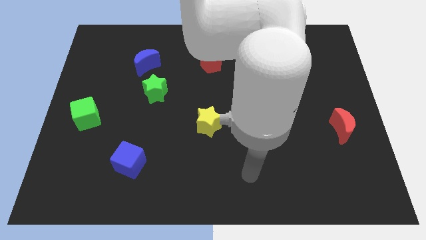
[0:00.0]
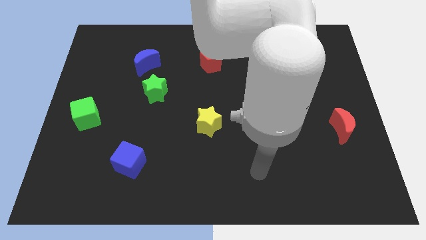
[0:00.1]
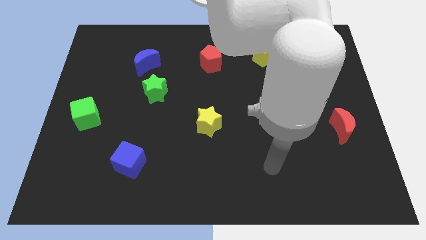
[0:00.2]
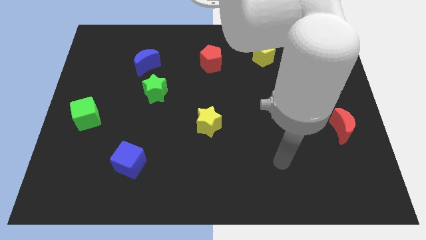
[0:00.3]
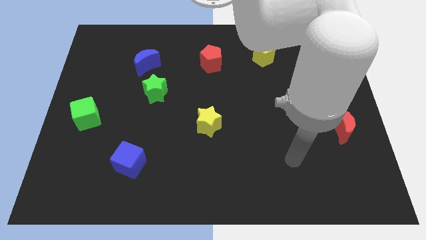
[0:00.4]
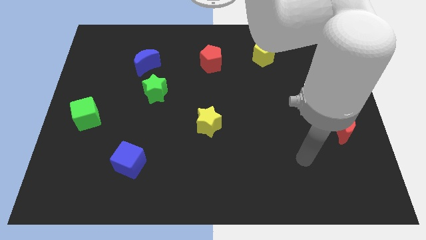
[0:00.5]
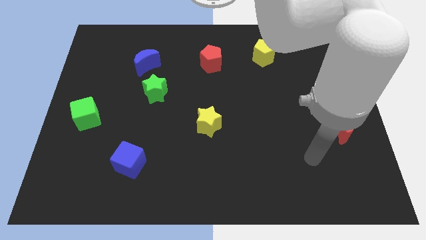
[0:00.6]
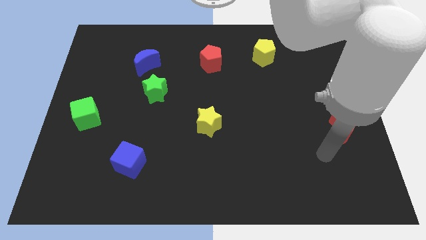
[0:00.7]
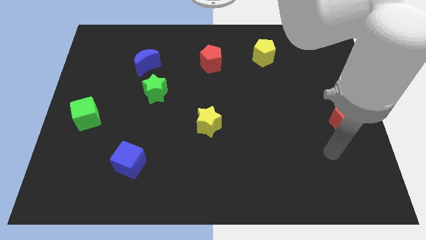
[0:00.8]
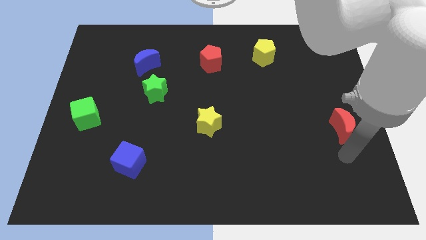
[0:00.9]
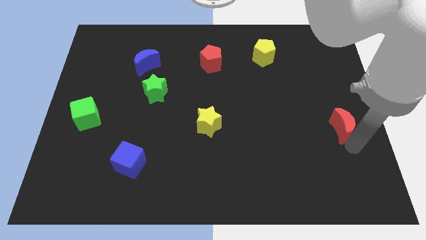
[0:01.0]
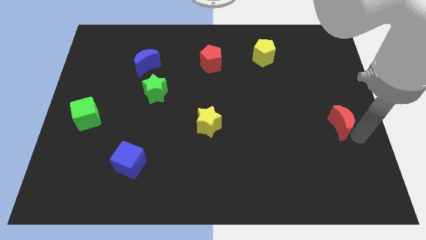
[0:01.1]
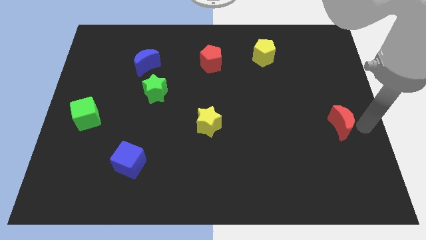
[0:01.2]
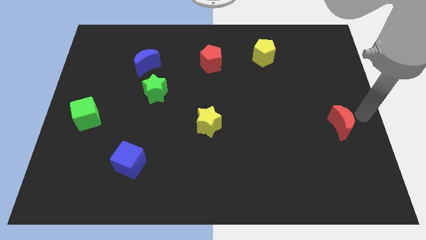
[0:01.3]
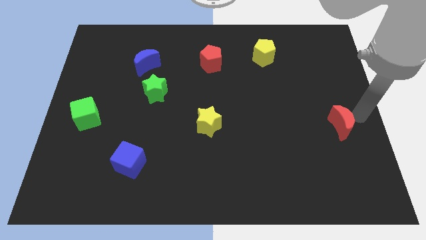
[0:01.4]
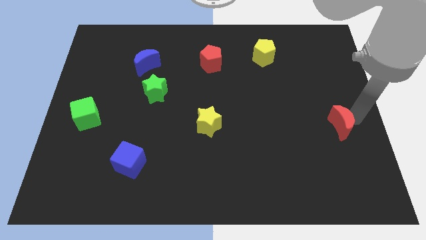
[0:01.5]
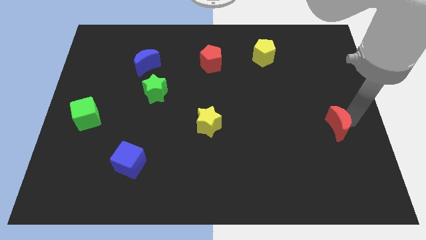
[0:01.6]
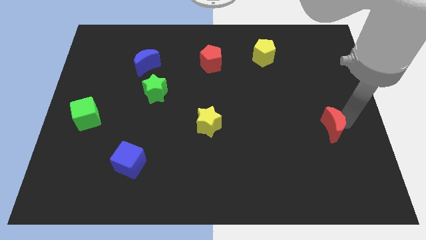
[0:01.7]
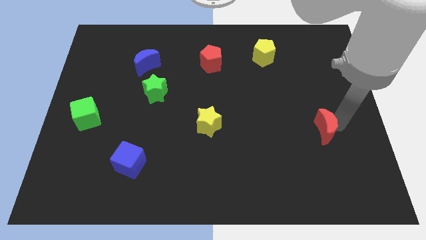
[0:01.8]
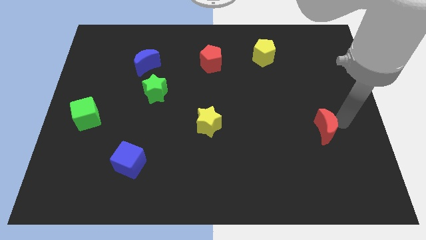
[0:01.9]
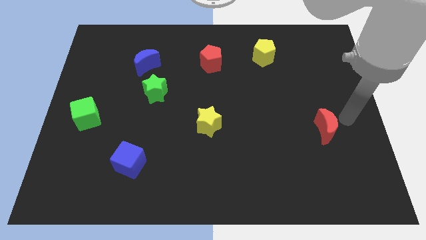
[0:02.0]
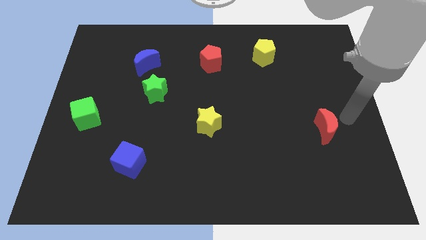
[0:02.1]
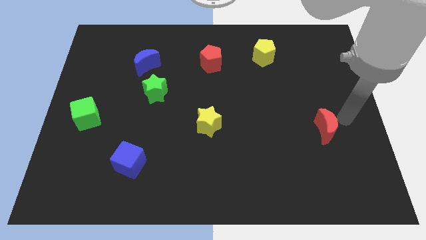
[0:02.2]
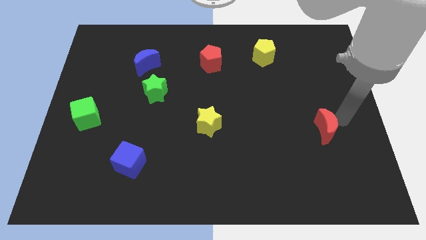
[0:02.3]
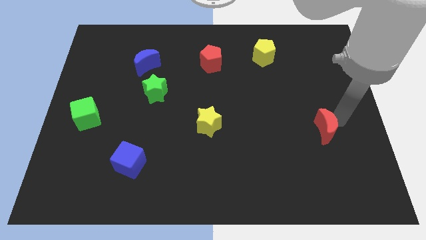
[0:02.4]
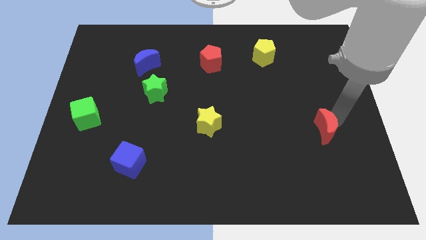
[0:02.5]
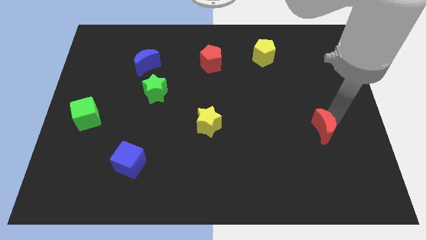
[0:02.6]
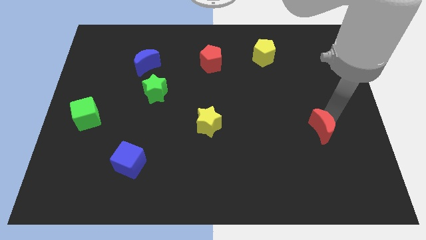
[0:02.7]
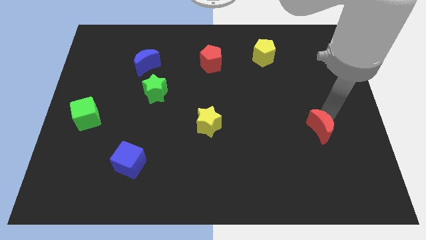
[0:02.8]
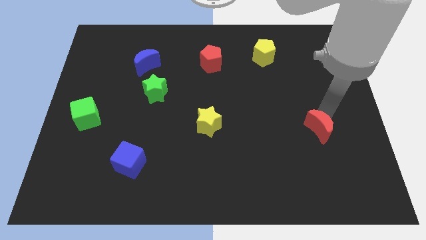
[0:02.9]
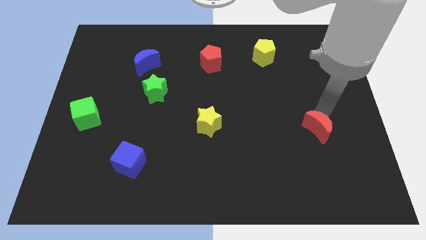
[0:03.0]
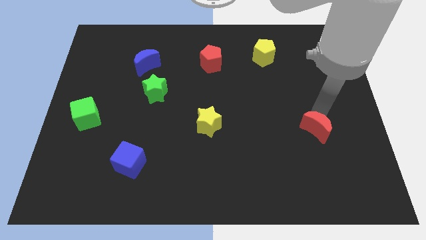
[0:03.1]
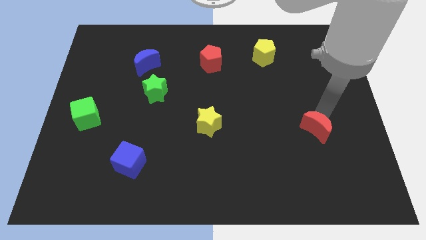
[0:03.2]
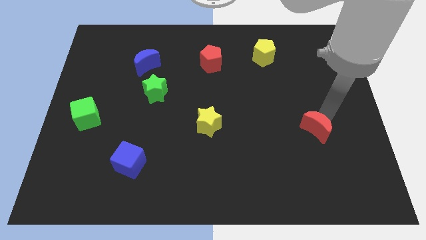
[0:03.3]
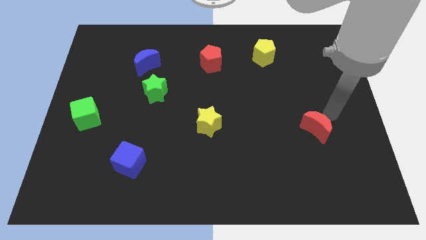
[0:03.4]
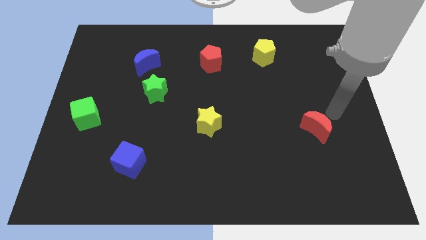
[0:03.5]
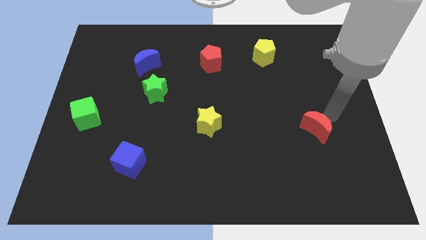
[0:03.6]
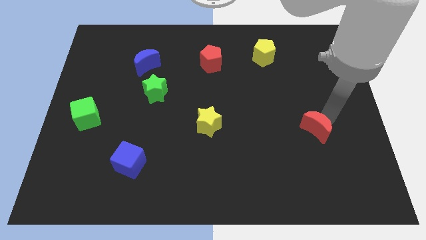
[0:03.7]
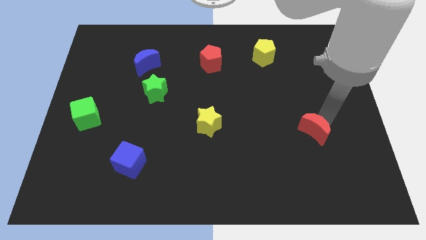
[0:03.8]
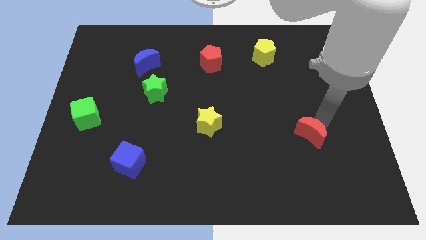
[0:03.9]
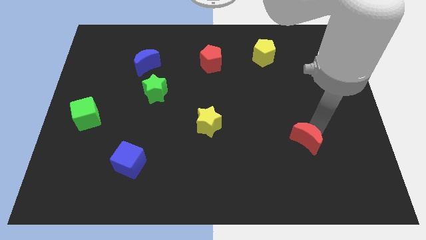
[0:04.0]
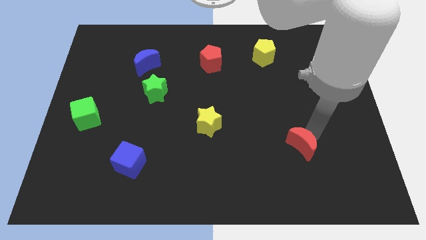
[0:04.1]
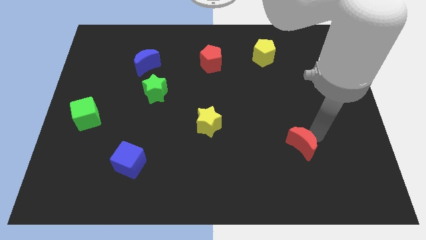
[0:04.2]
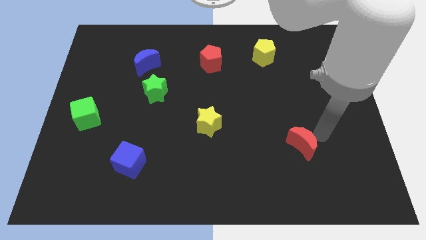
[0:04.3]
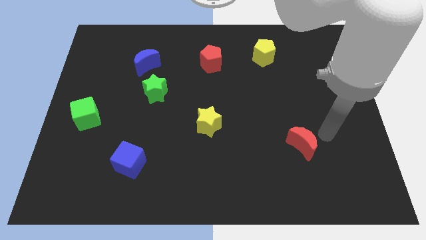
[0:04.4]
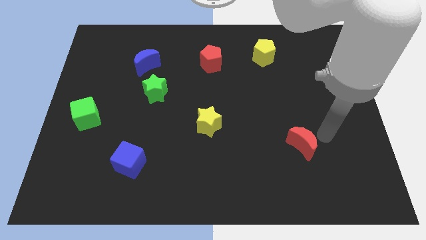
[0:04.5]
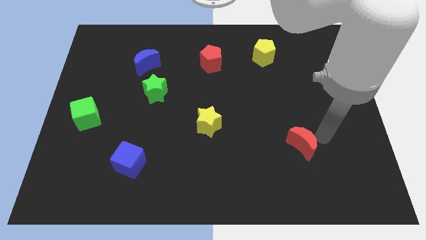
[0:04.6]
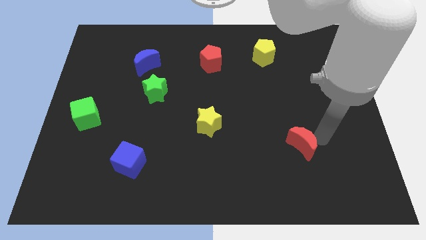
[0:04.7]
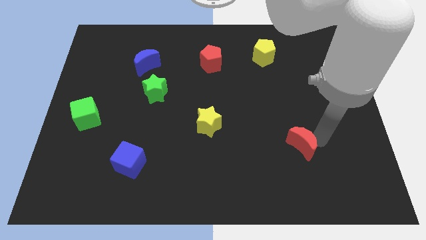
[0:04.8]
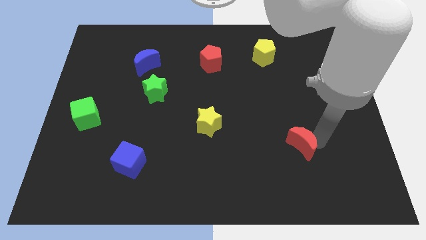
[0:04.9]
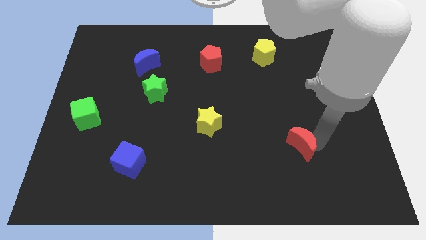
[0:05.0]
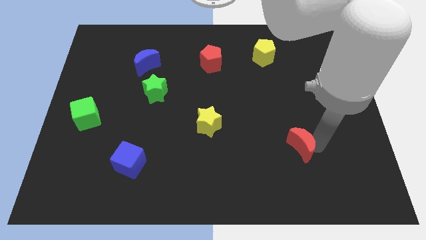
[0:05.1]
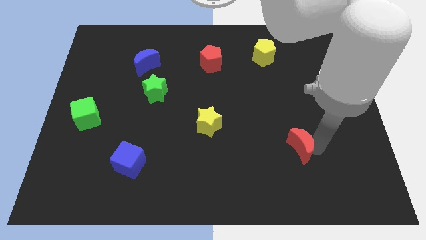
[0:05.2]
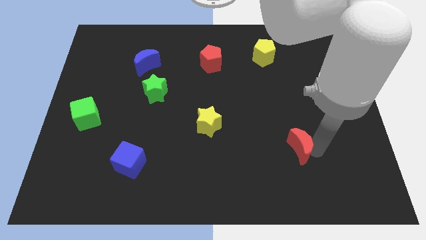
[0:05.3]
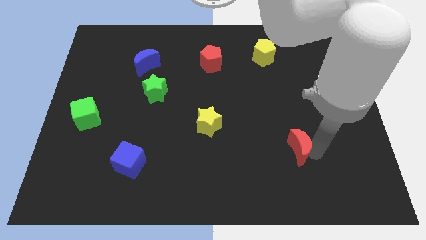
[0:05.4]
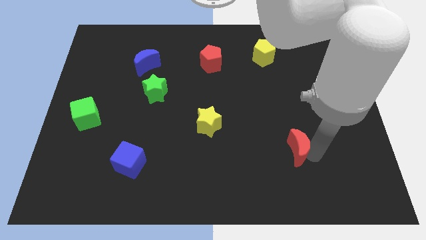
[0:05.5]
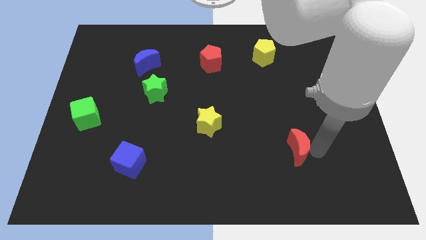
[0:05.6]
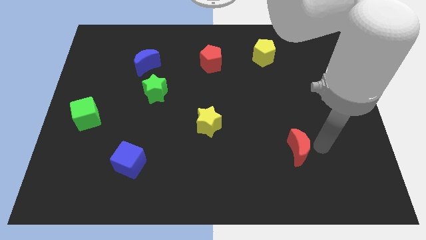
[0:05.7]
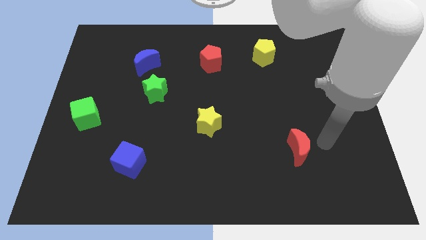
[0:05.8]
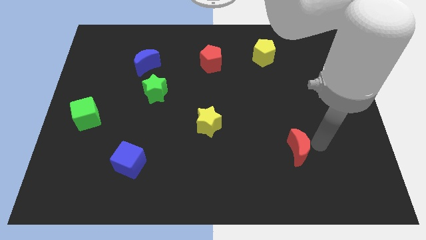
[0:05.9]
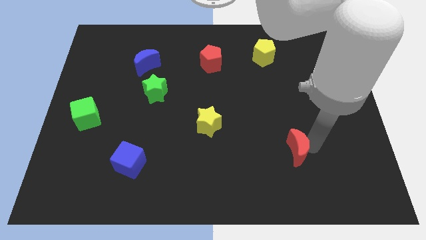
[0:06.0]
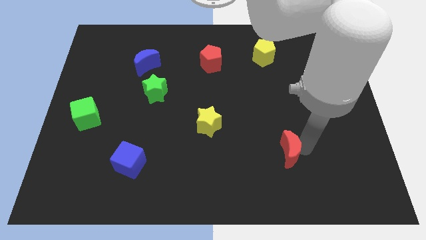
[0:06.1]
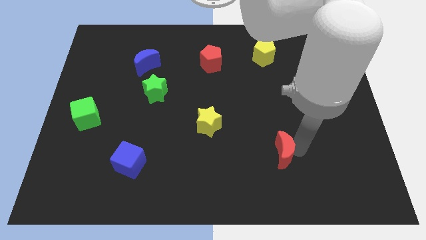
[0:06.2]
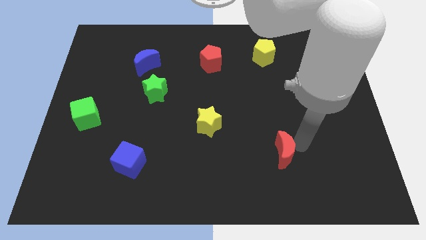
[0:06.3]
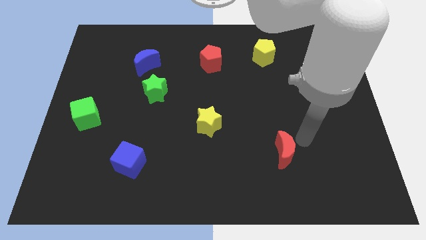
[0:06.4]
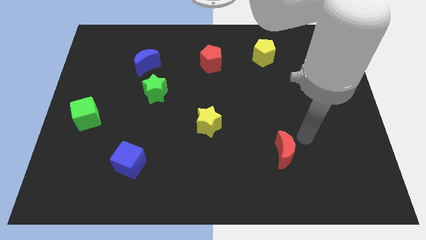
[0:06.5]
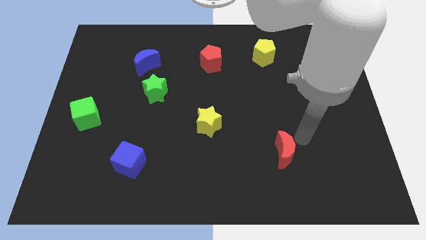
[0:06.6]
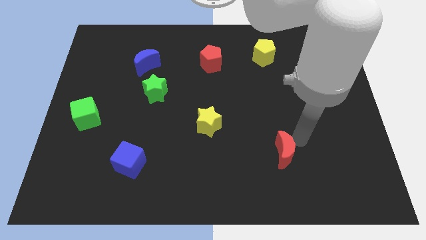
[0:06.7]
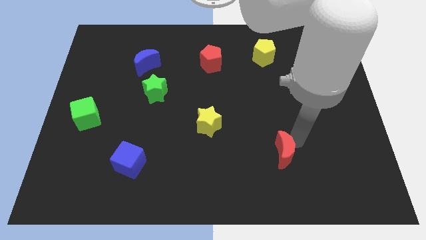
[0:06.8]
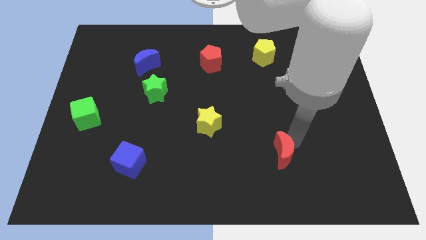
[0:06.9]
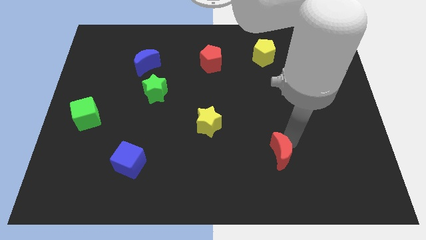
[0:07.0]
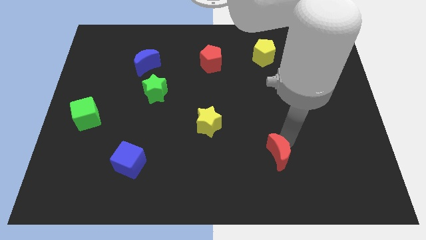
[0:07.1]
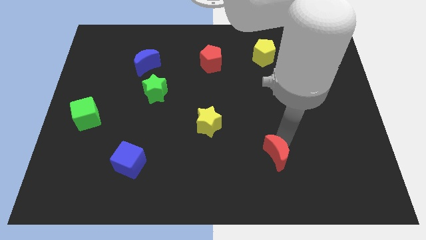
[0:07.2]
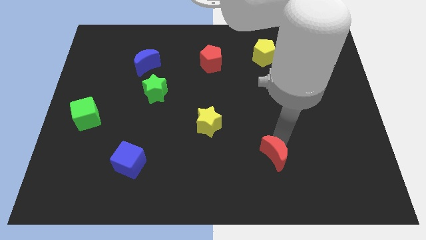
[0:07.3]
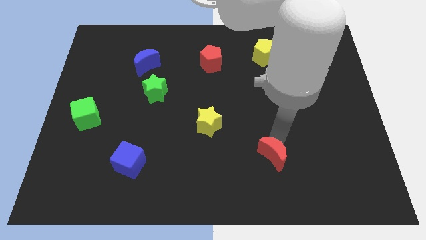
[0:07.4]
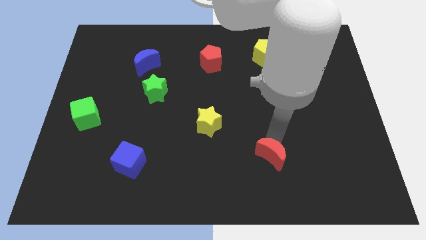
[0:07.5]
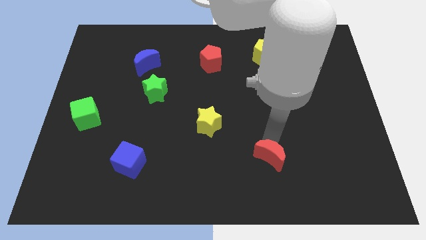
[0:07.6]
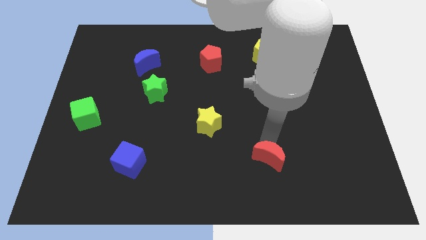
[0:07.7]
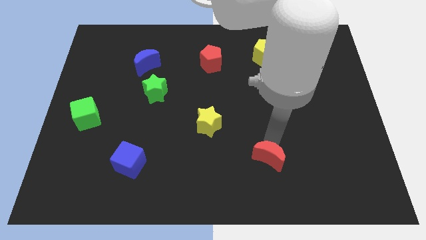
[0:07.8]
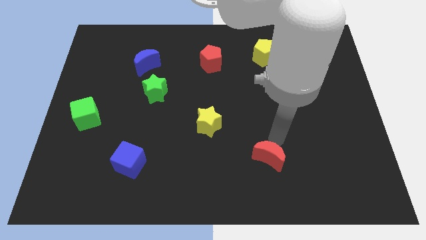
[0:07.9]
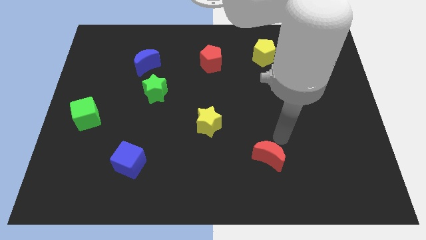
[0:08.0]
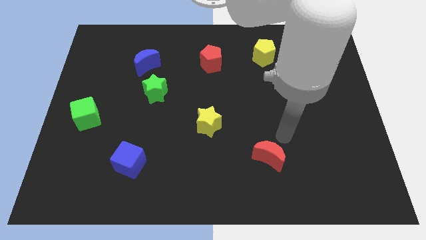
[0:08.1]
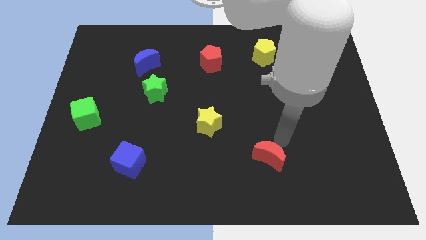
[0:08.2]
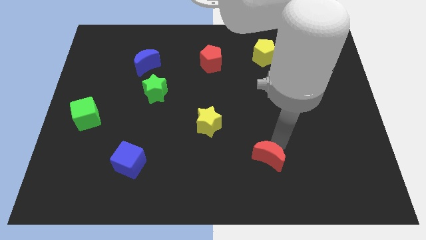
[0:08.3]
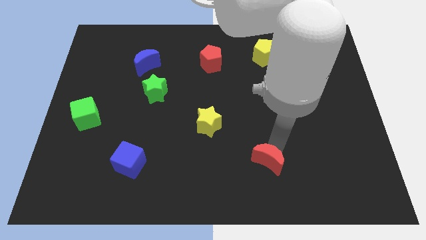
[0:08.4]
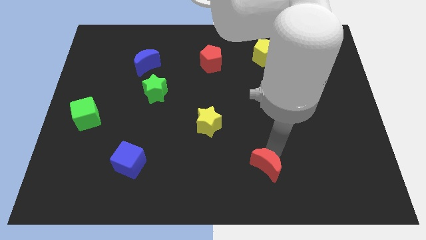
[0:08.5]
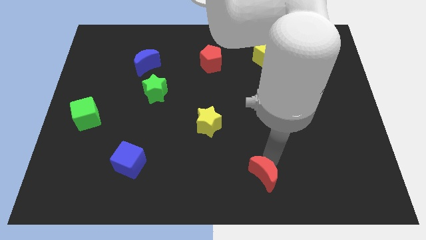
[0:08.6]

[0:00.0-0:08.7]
slide the red moon to the bottom
